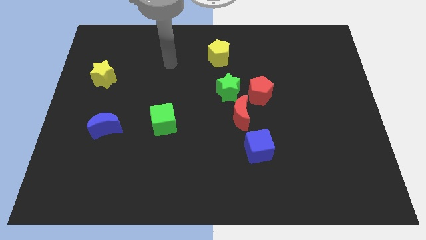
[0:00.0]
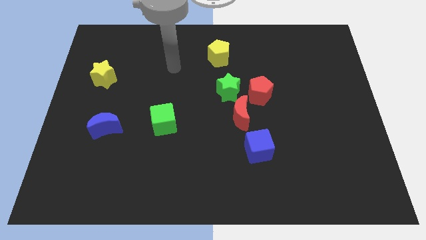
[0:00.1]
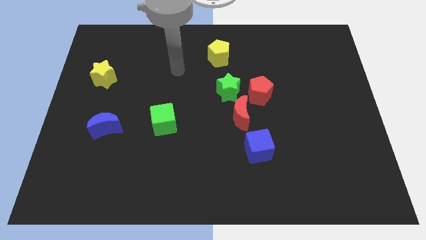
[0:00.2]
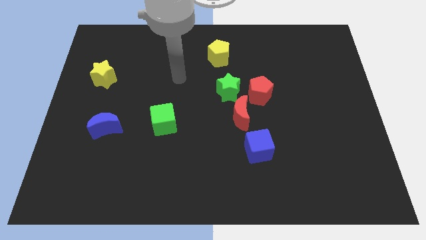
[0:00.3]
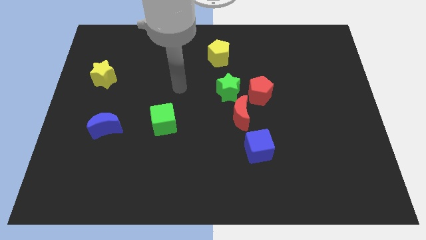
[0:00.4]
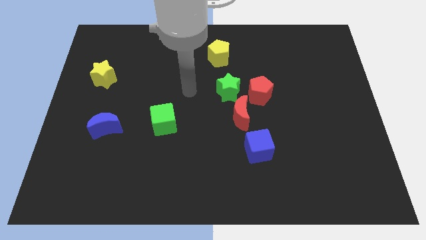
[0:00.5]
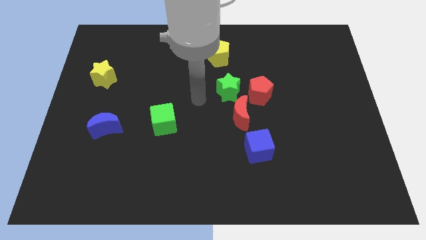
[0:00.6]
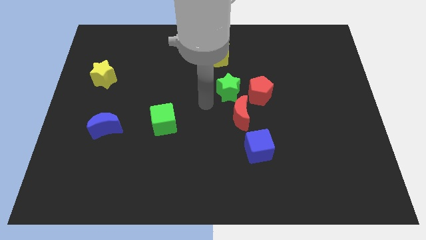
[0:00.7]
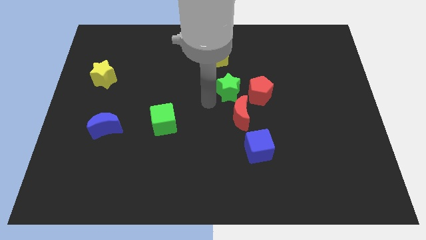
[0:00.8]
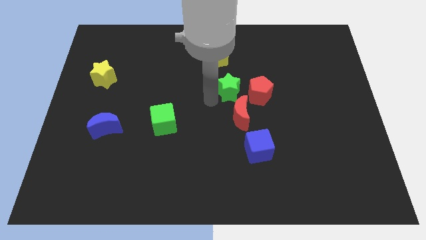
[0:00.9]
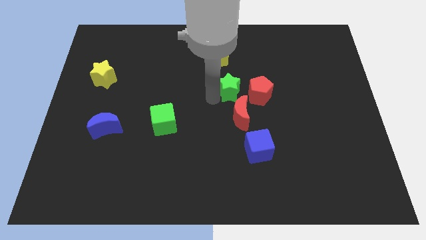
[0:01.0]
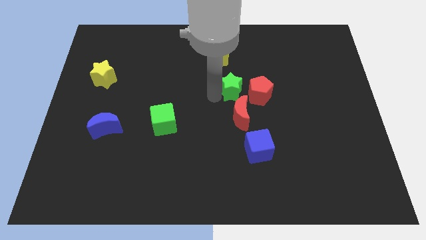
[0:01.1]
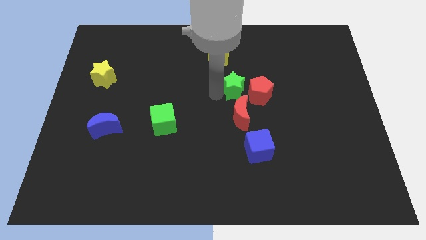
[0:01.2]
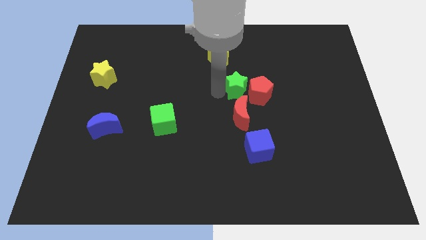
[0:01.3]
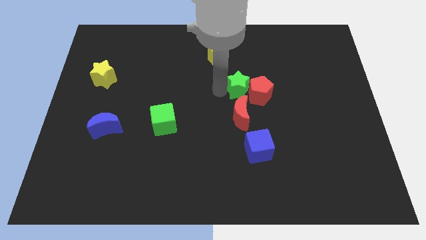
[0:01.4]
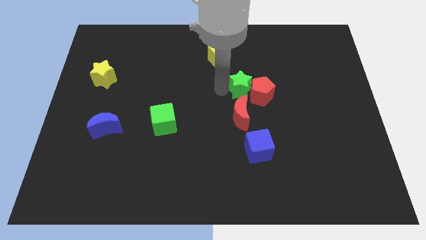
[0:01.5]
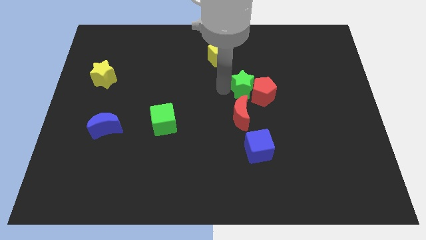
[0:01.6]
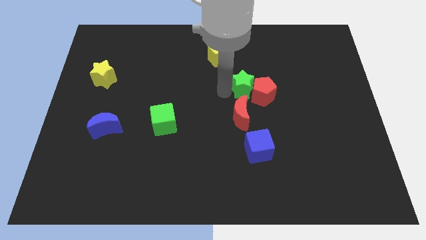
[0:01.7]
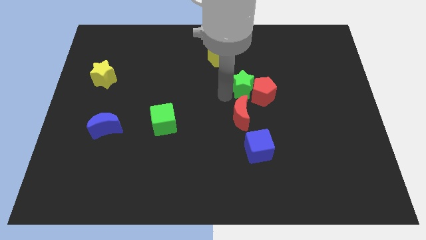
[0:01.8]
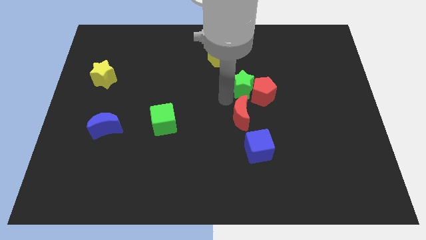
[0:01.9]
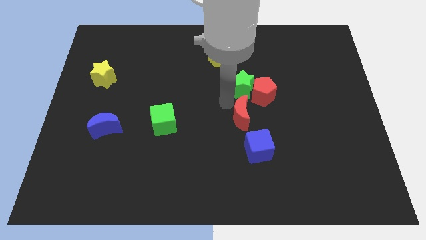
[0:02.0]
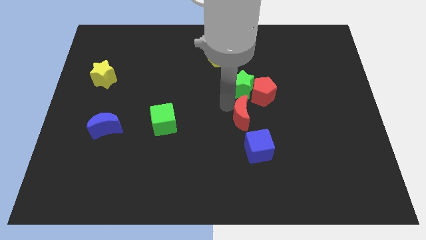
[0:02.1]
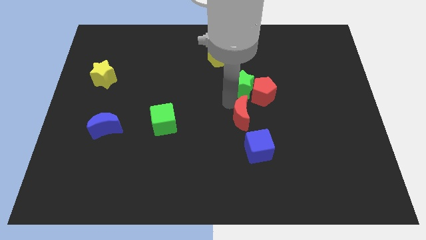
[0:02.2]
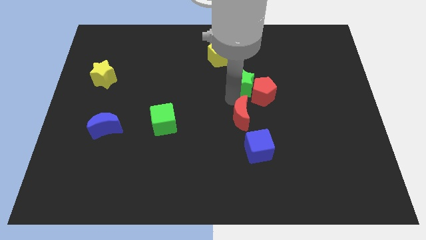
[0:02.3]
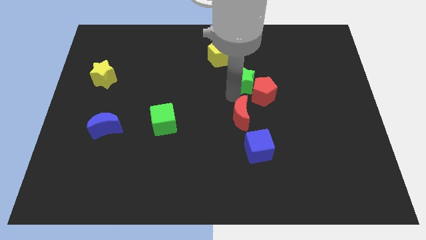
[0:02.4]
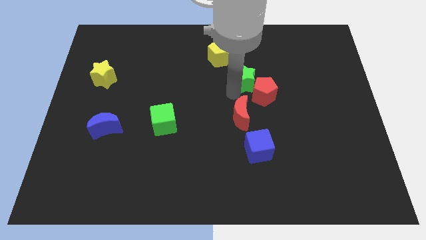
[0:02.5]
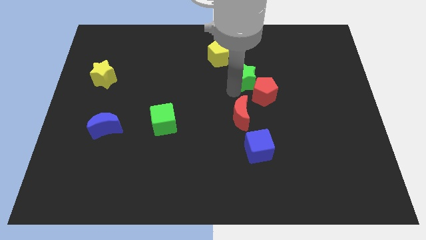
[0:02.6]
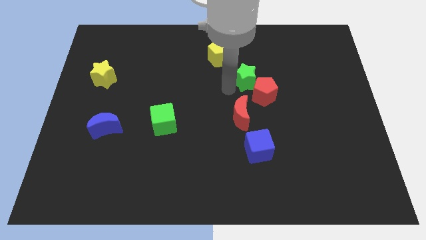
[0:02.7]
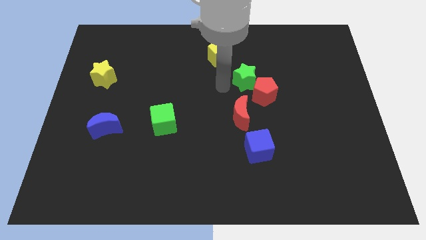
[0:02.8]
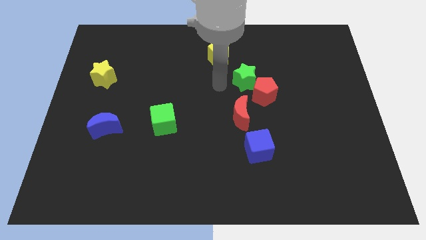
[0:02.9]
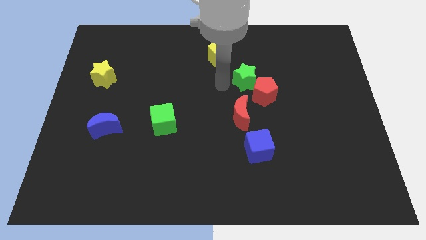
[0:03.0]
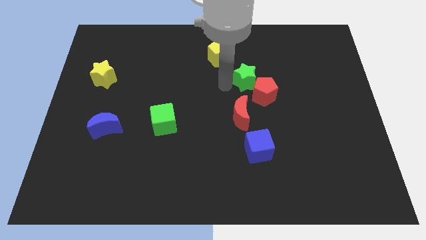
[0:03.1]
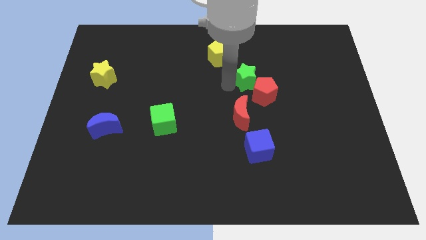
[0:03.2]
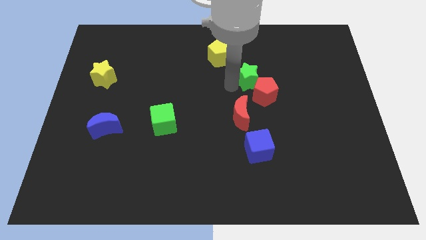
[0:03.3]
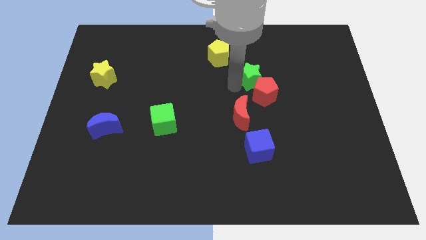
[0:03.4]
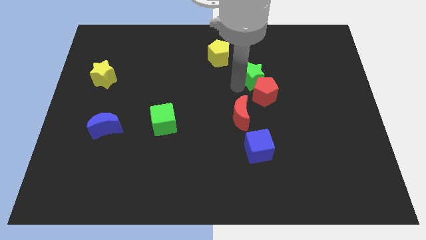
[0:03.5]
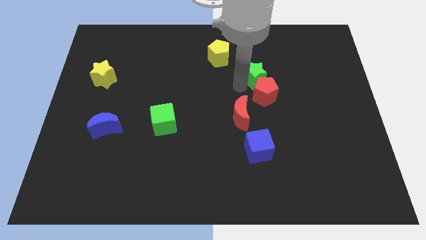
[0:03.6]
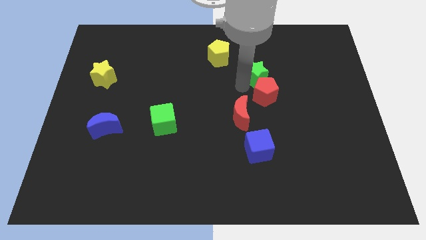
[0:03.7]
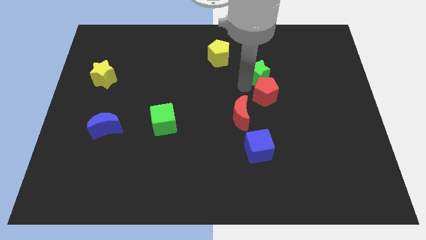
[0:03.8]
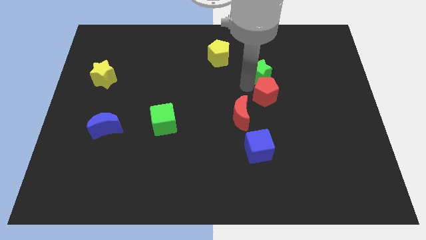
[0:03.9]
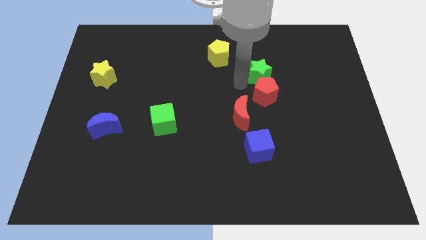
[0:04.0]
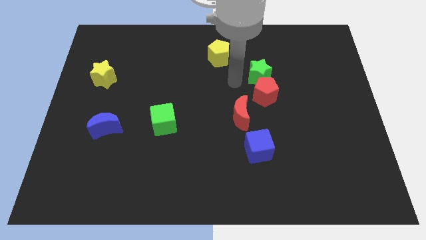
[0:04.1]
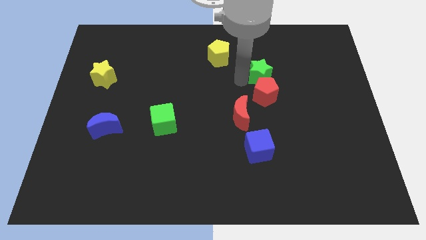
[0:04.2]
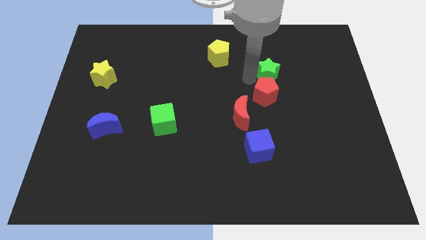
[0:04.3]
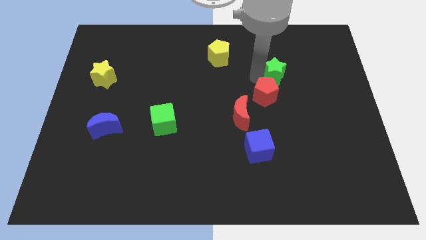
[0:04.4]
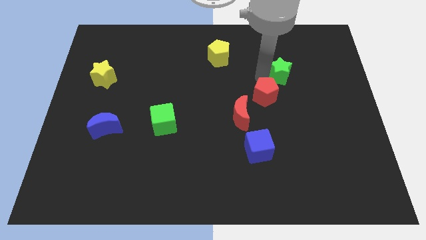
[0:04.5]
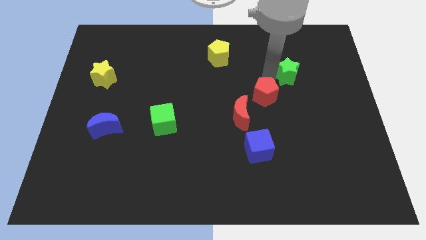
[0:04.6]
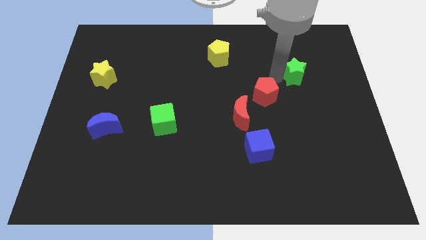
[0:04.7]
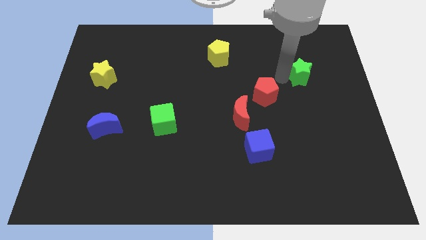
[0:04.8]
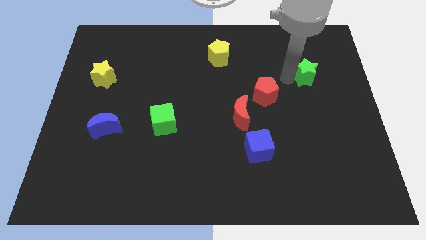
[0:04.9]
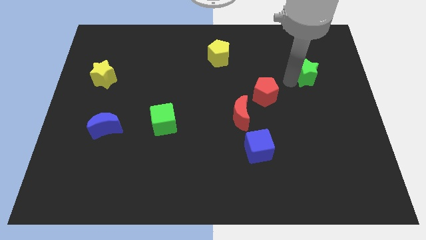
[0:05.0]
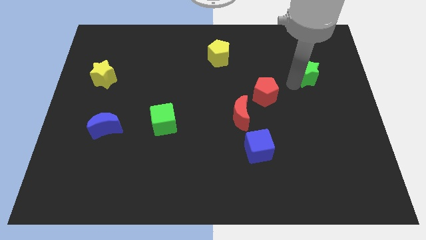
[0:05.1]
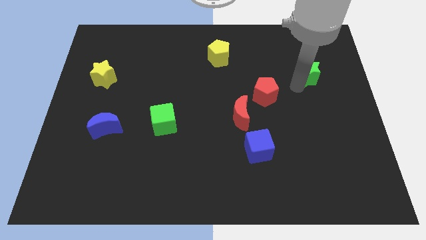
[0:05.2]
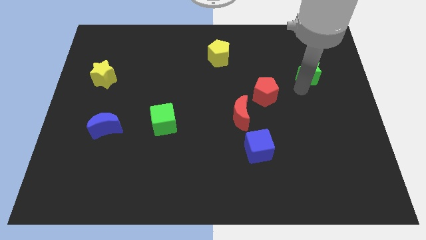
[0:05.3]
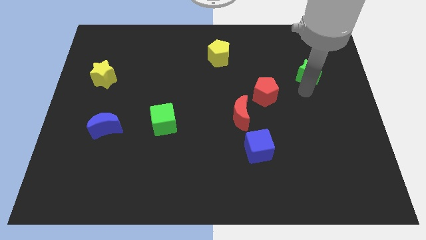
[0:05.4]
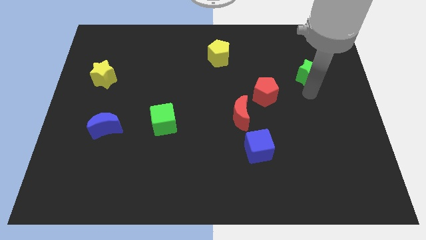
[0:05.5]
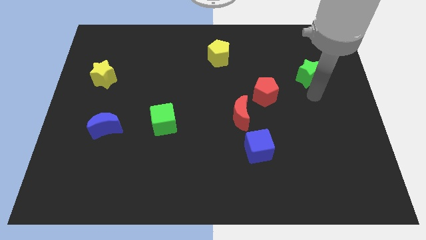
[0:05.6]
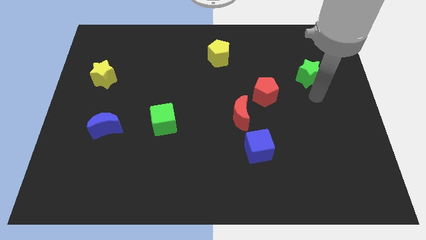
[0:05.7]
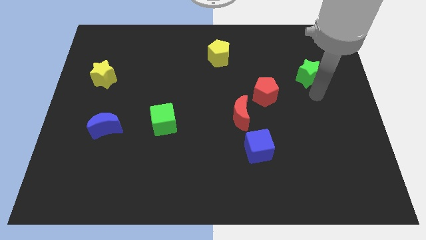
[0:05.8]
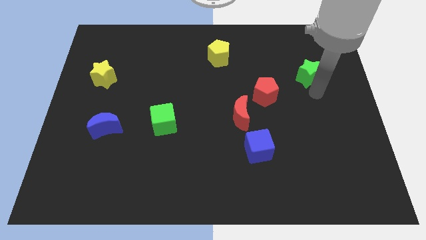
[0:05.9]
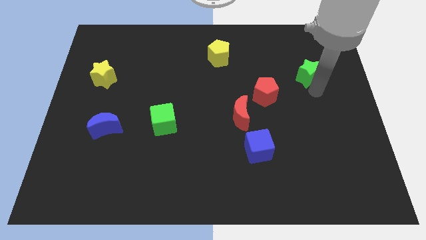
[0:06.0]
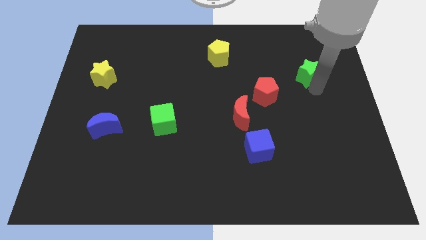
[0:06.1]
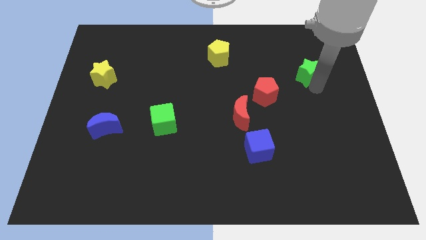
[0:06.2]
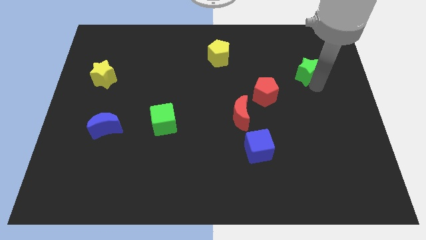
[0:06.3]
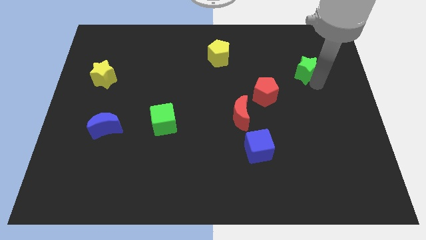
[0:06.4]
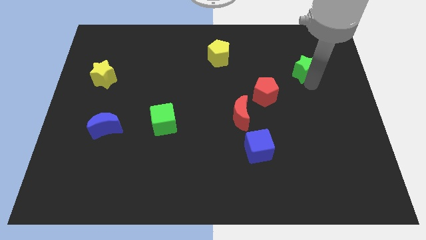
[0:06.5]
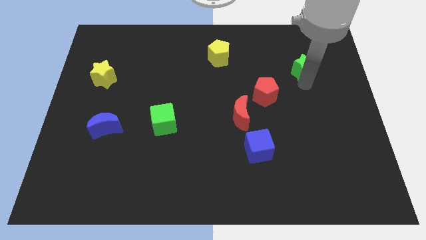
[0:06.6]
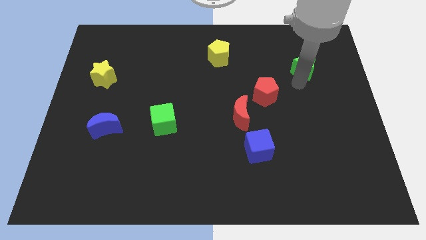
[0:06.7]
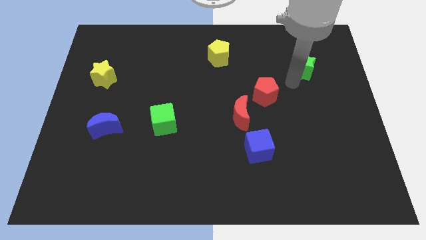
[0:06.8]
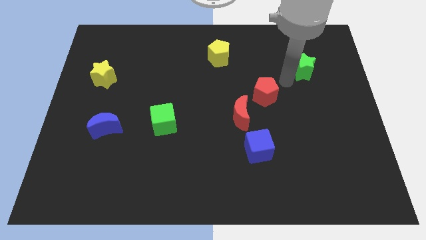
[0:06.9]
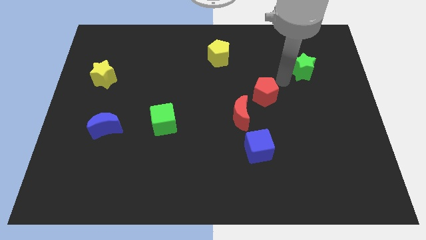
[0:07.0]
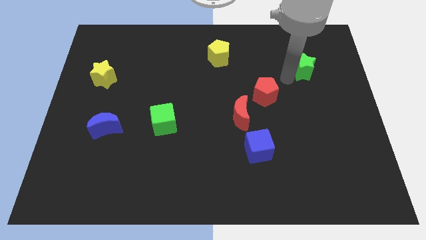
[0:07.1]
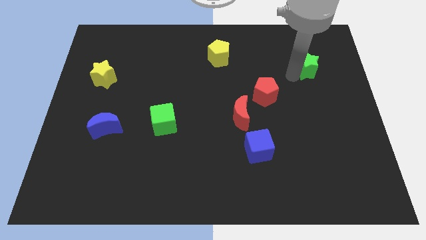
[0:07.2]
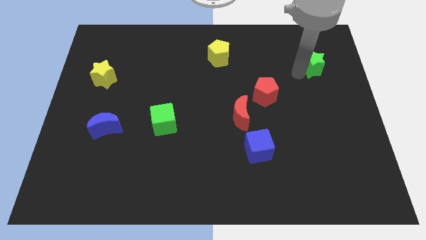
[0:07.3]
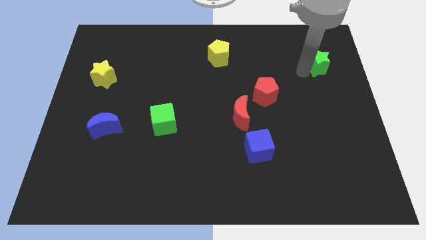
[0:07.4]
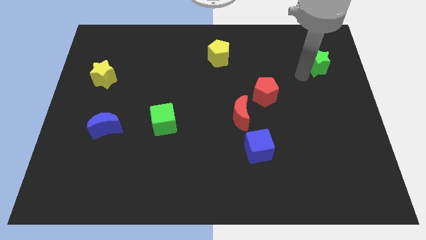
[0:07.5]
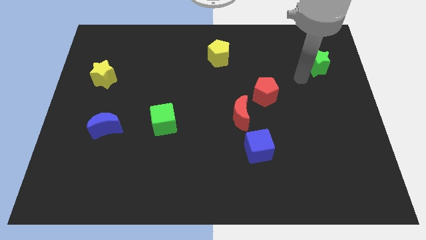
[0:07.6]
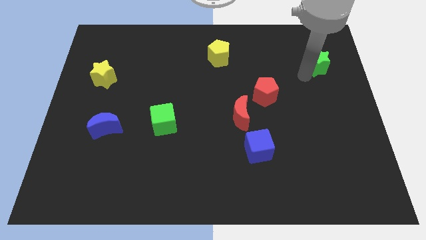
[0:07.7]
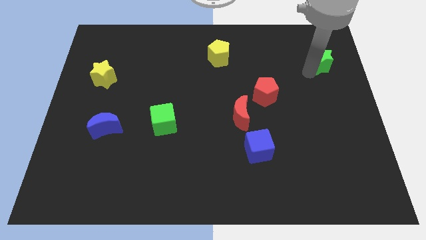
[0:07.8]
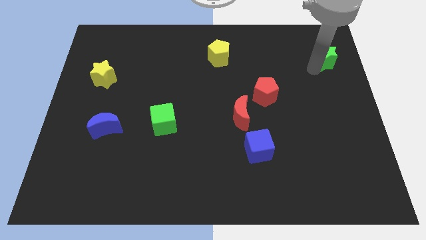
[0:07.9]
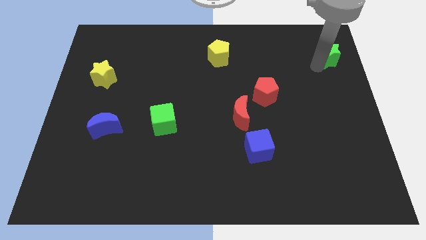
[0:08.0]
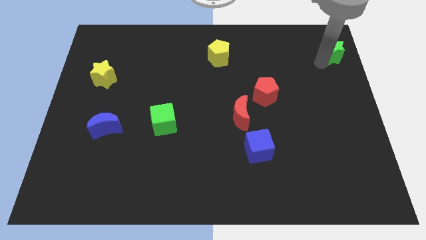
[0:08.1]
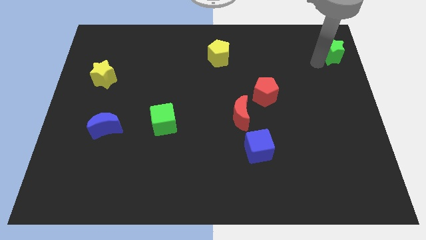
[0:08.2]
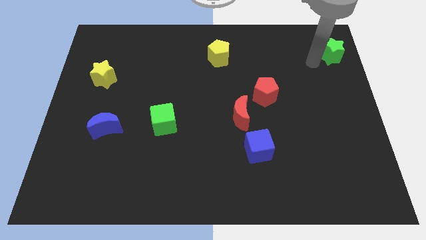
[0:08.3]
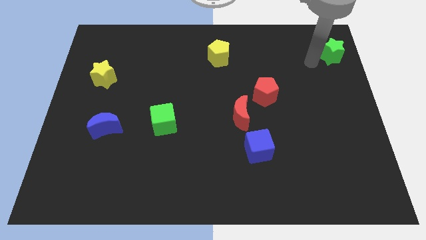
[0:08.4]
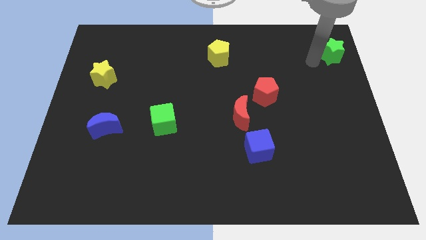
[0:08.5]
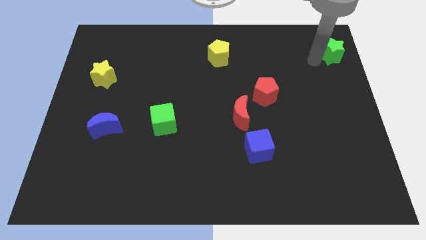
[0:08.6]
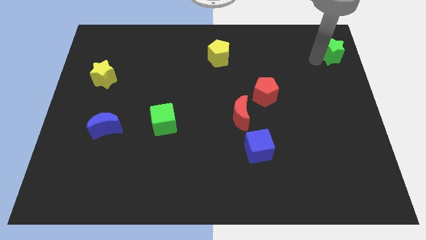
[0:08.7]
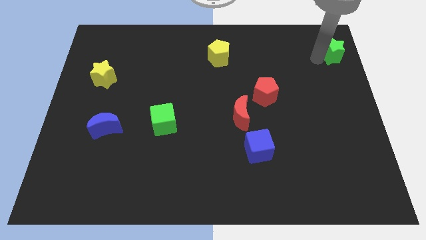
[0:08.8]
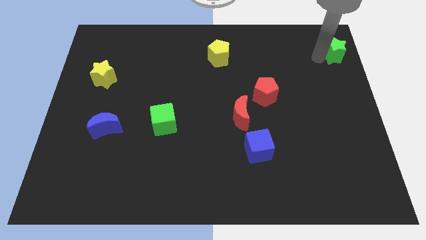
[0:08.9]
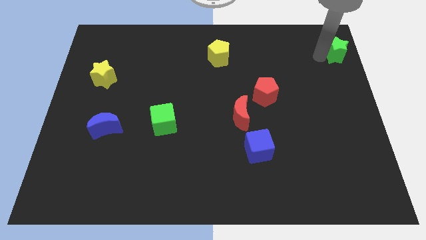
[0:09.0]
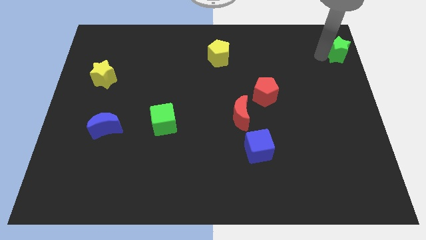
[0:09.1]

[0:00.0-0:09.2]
put the green star to the top right of the board
